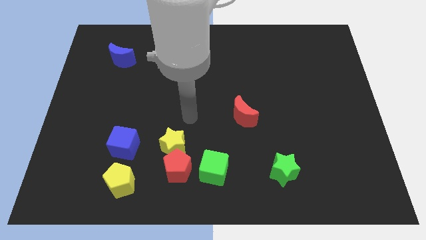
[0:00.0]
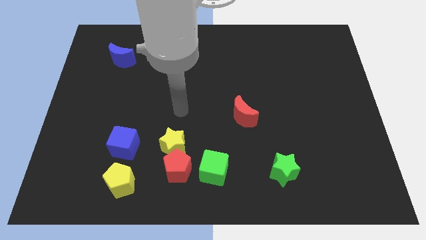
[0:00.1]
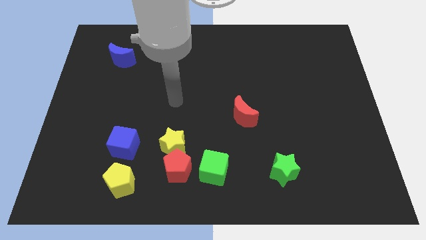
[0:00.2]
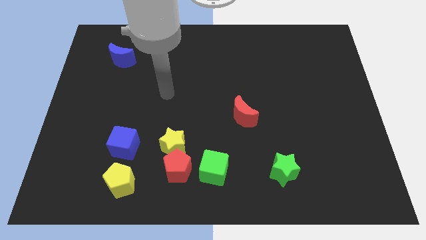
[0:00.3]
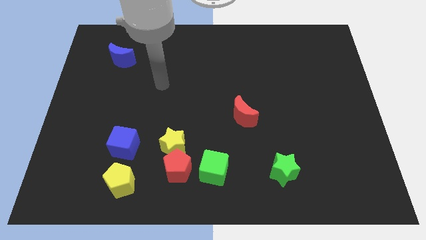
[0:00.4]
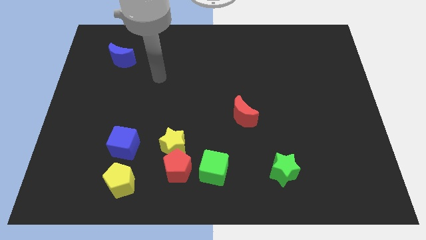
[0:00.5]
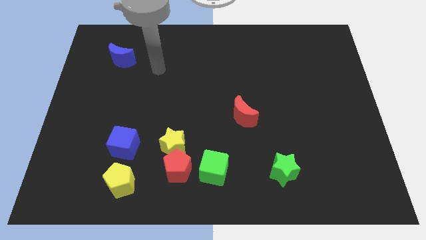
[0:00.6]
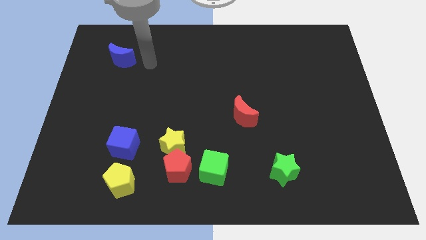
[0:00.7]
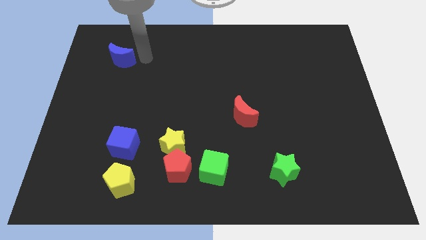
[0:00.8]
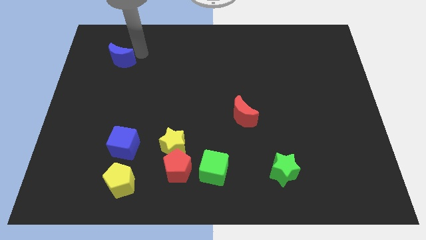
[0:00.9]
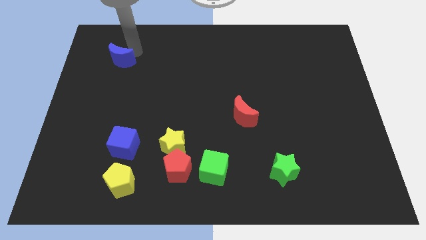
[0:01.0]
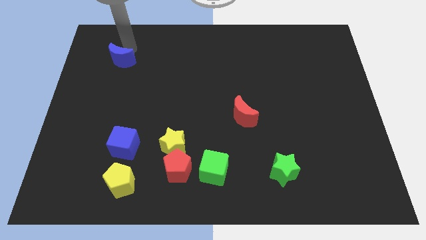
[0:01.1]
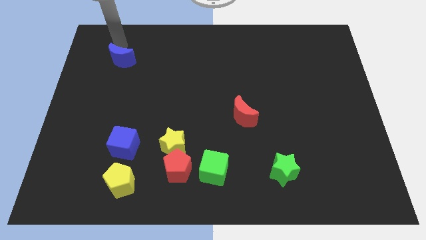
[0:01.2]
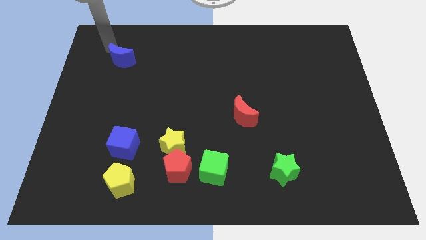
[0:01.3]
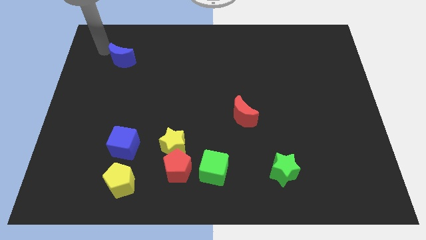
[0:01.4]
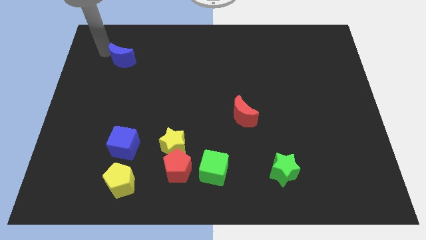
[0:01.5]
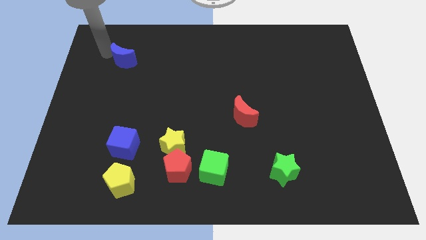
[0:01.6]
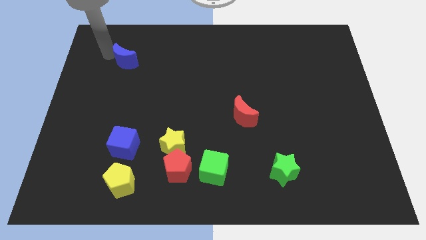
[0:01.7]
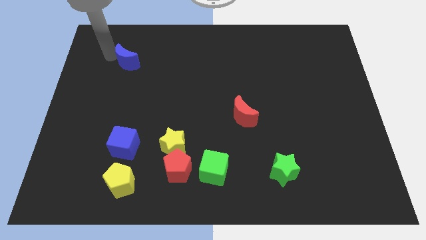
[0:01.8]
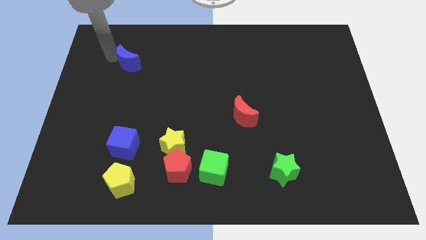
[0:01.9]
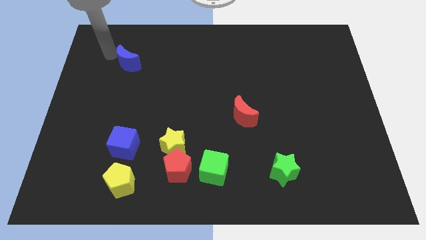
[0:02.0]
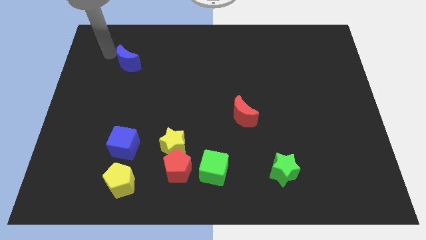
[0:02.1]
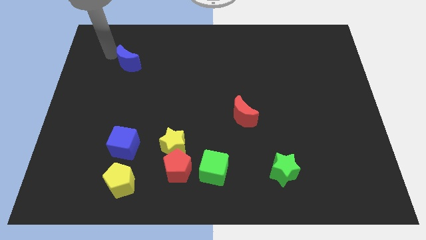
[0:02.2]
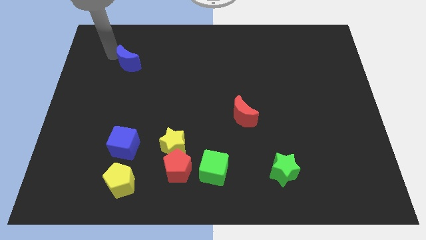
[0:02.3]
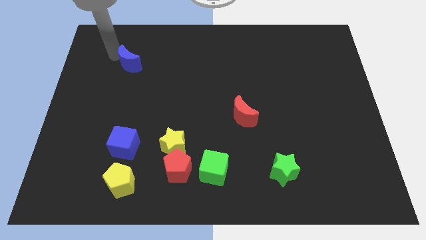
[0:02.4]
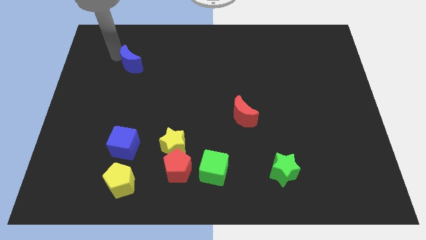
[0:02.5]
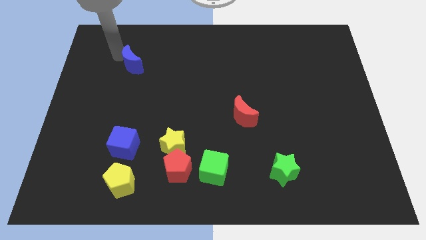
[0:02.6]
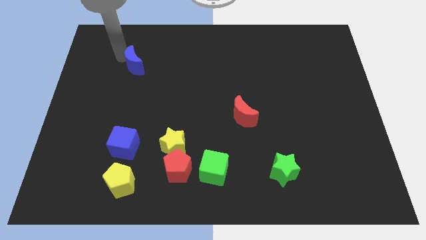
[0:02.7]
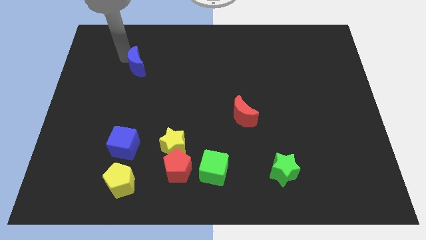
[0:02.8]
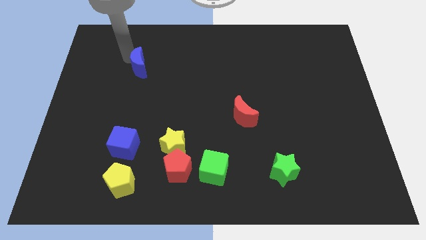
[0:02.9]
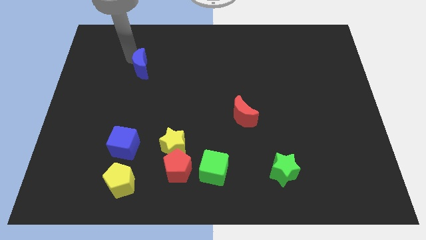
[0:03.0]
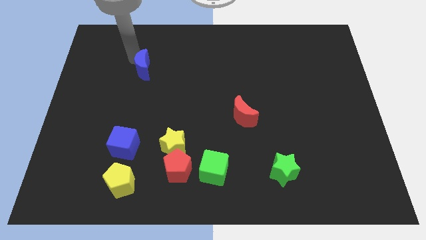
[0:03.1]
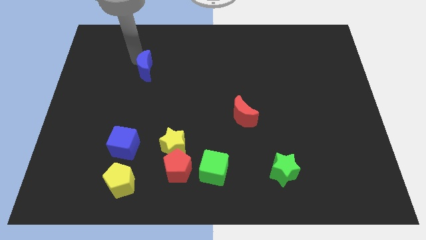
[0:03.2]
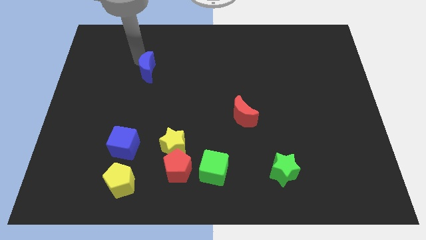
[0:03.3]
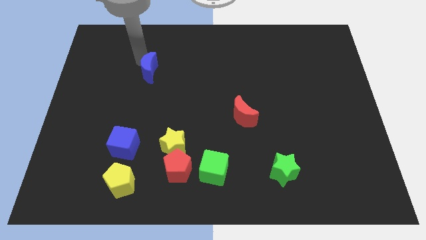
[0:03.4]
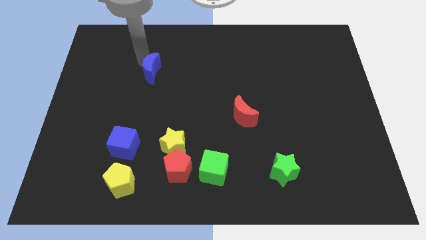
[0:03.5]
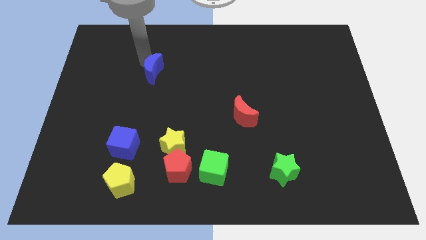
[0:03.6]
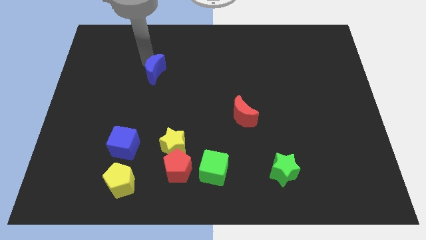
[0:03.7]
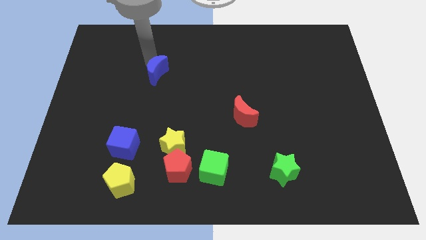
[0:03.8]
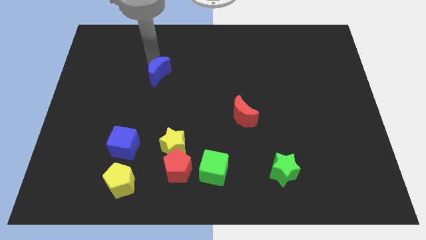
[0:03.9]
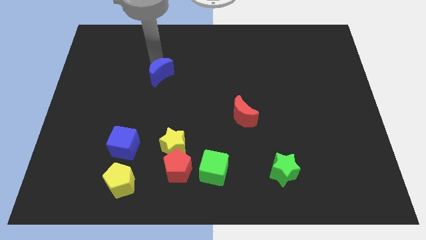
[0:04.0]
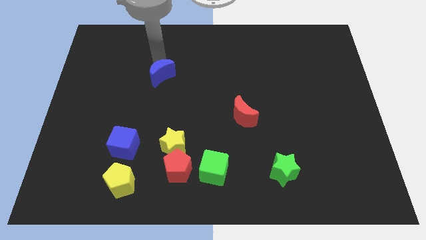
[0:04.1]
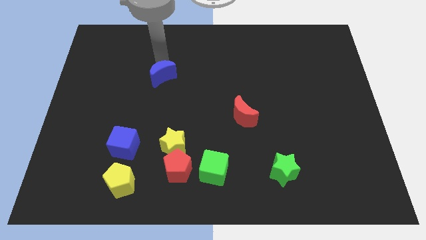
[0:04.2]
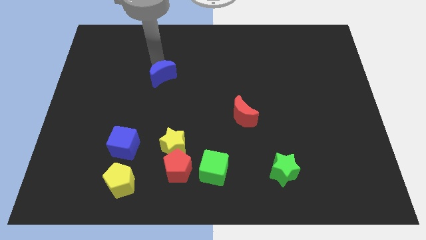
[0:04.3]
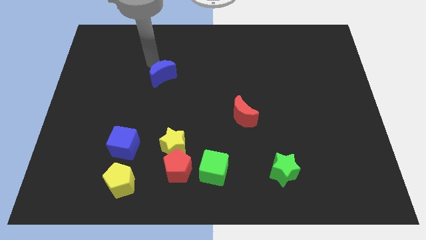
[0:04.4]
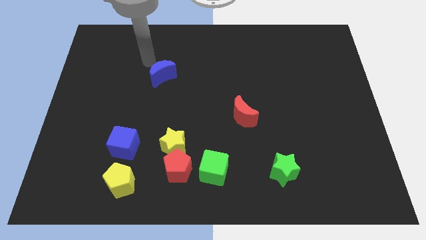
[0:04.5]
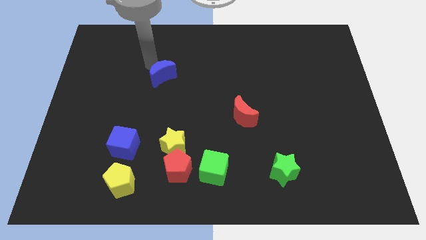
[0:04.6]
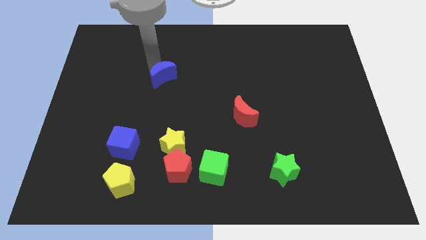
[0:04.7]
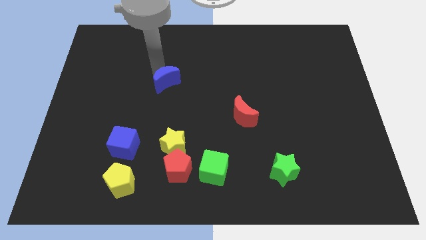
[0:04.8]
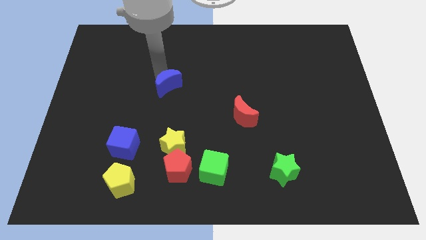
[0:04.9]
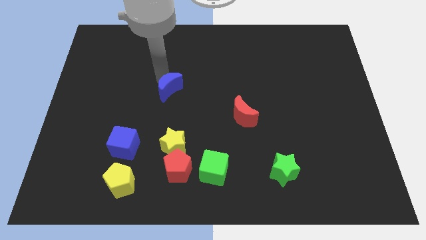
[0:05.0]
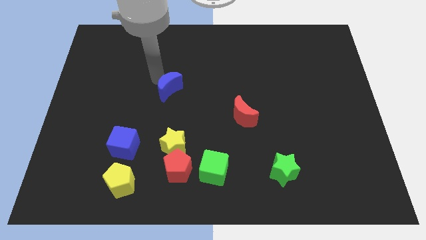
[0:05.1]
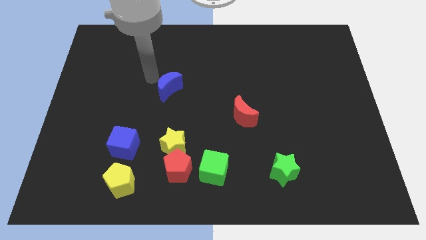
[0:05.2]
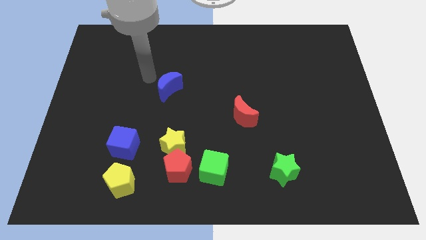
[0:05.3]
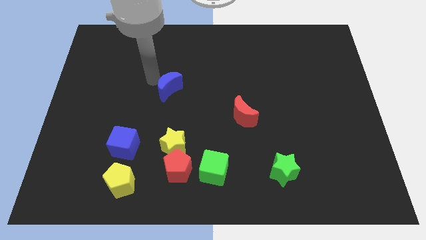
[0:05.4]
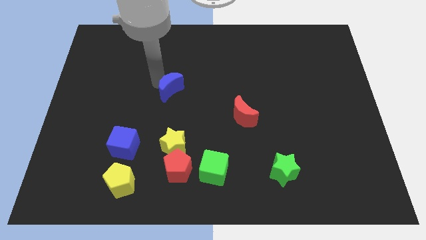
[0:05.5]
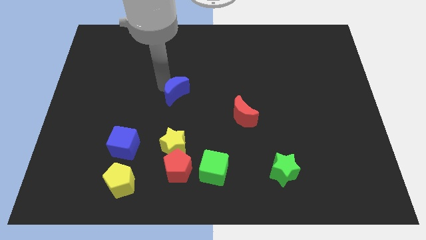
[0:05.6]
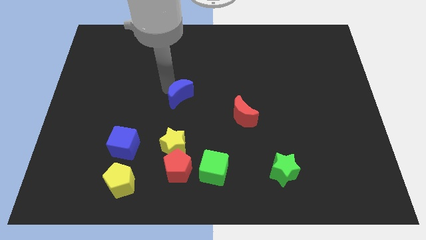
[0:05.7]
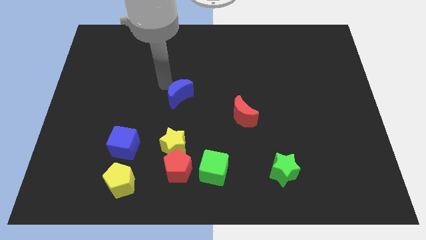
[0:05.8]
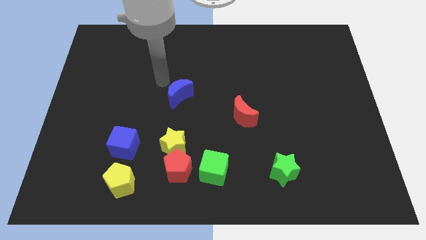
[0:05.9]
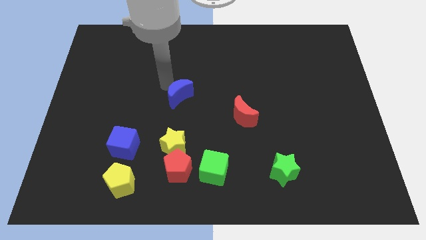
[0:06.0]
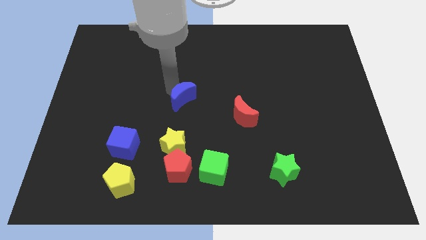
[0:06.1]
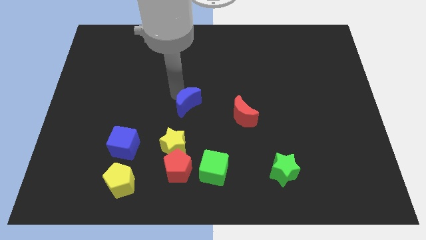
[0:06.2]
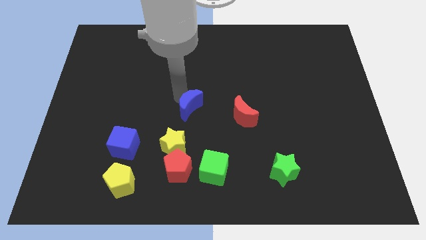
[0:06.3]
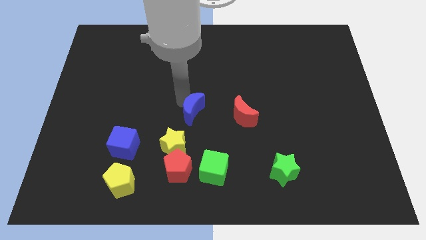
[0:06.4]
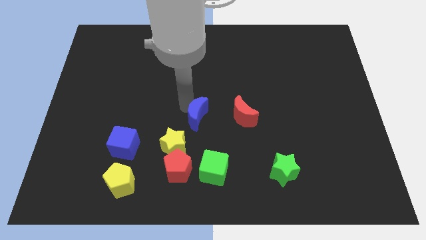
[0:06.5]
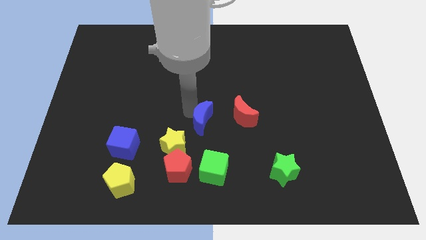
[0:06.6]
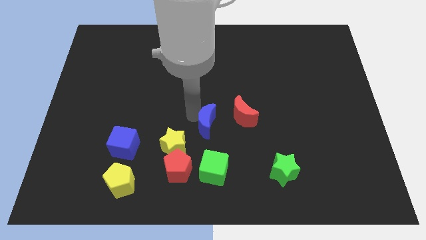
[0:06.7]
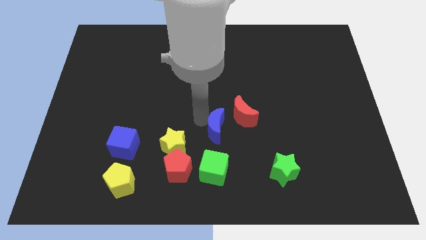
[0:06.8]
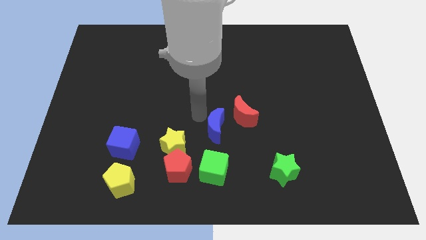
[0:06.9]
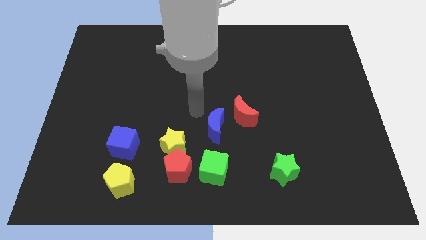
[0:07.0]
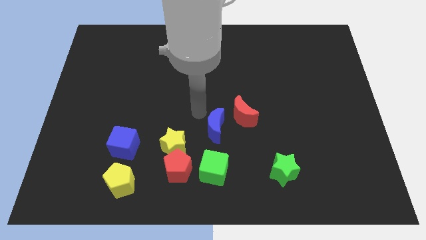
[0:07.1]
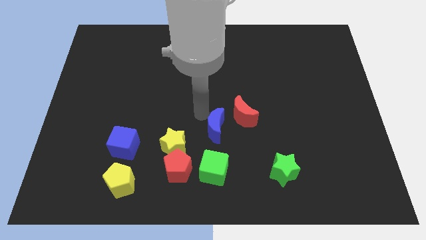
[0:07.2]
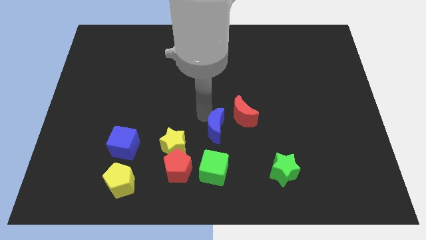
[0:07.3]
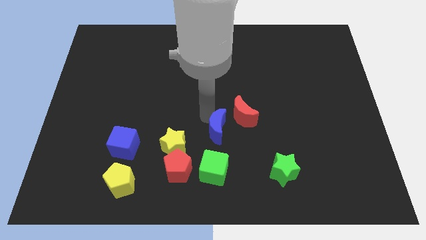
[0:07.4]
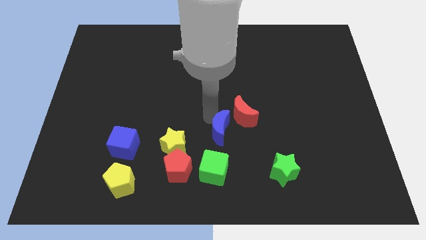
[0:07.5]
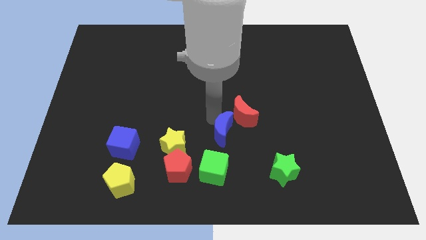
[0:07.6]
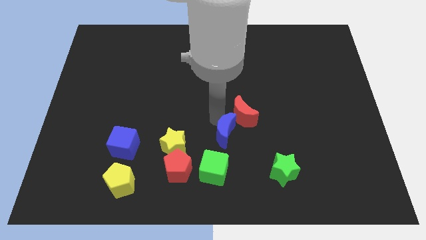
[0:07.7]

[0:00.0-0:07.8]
move the blue moon to the top right of the green cube

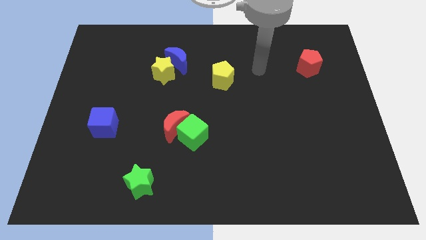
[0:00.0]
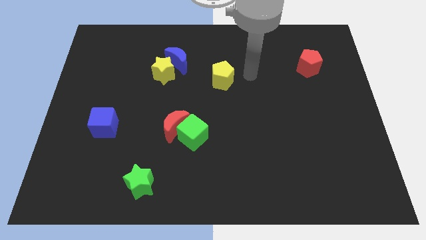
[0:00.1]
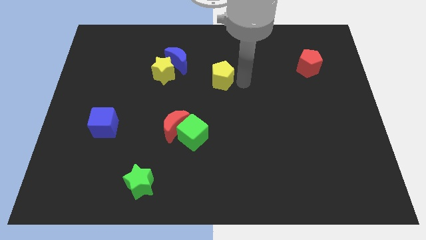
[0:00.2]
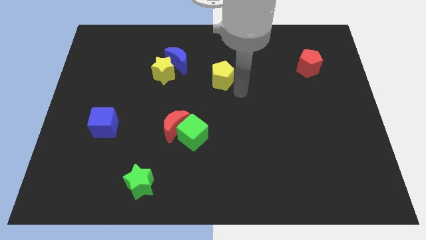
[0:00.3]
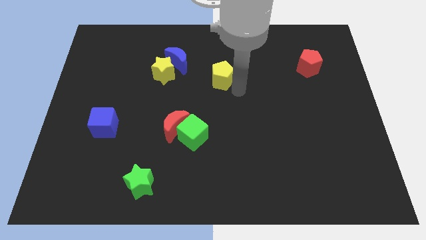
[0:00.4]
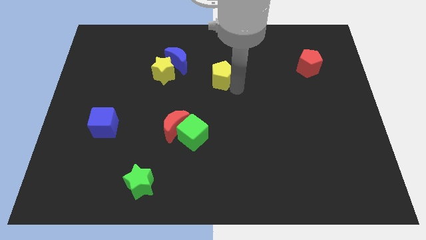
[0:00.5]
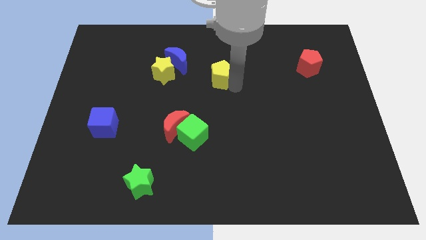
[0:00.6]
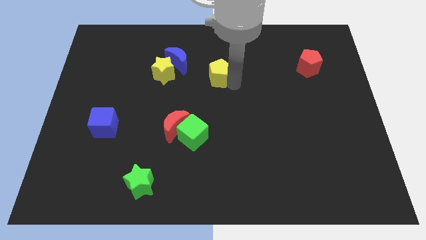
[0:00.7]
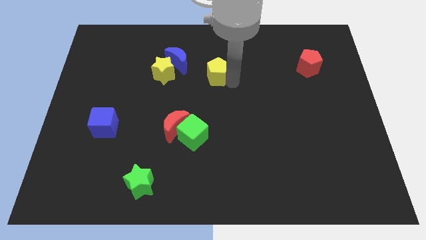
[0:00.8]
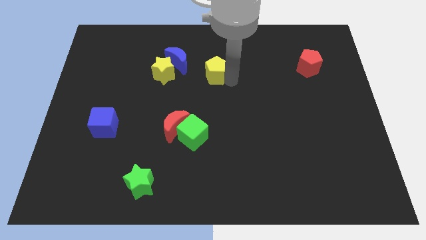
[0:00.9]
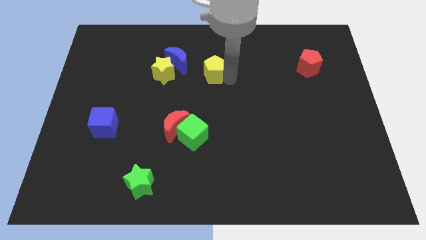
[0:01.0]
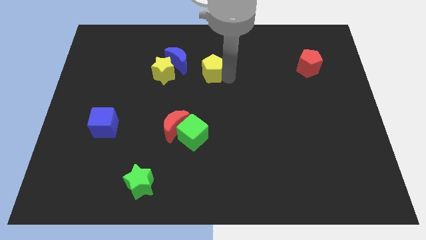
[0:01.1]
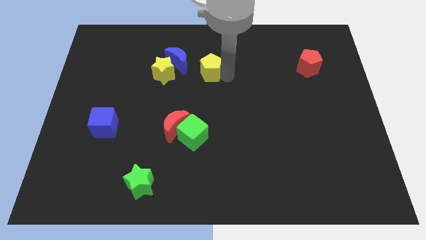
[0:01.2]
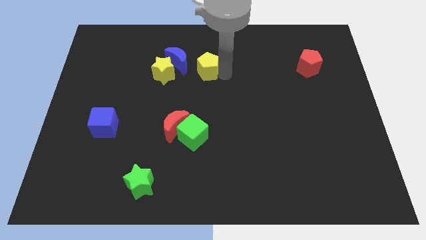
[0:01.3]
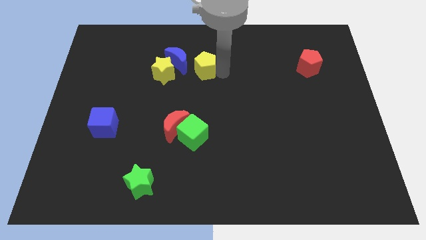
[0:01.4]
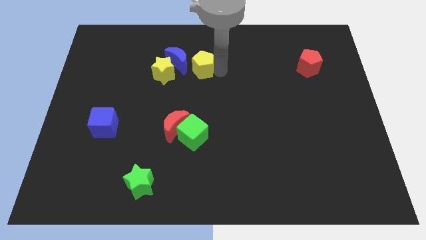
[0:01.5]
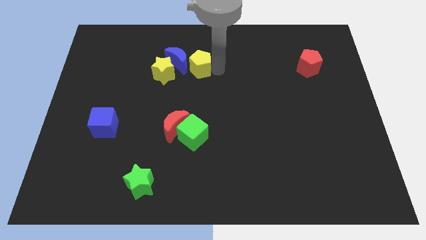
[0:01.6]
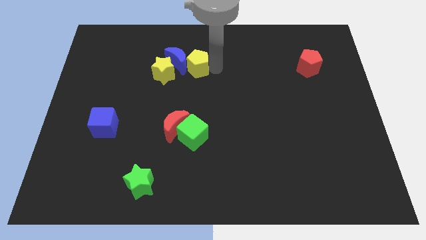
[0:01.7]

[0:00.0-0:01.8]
move the yellow pentagon diagonally up and to the right of the yellow star
